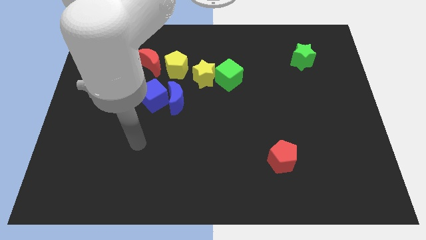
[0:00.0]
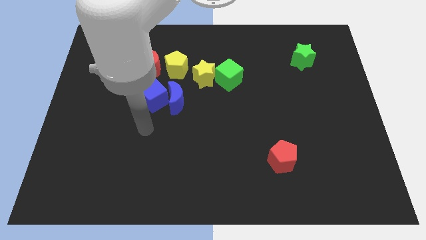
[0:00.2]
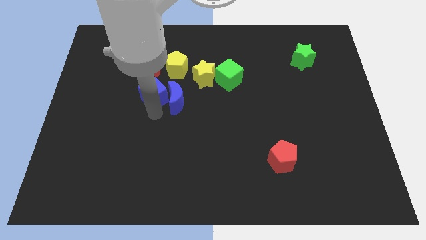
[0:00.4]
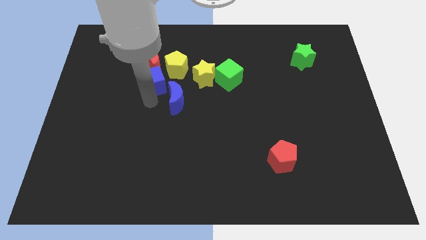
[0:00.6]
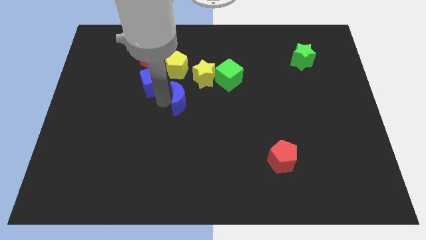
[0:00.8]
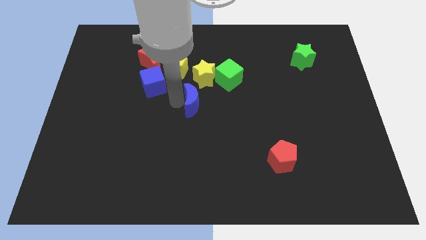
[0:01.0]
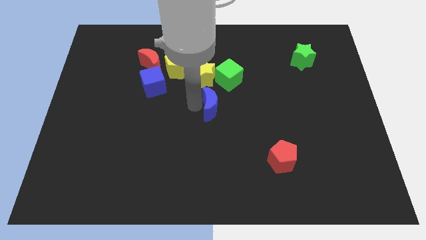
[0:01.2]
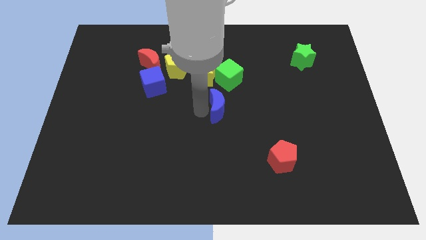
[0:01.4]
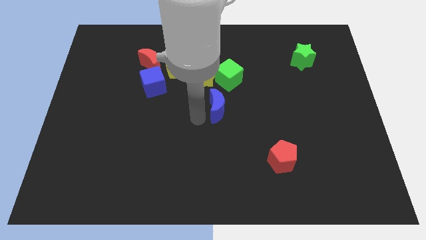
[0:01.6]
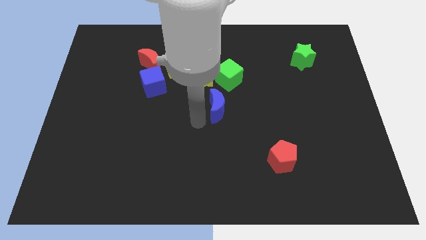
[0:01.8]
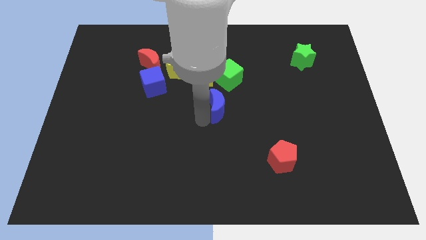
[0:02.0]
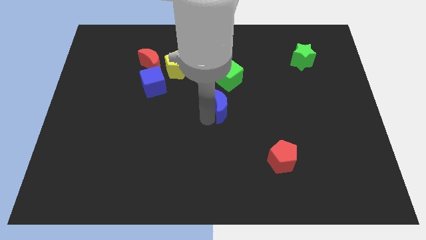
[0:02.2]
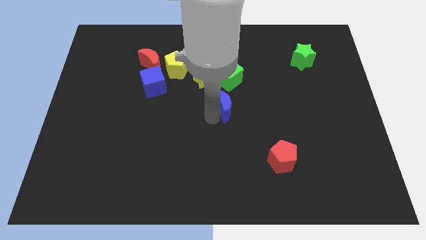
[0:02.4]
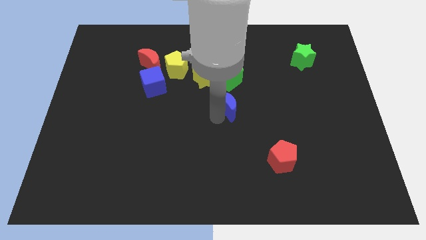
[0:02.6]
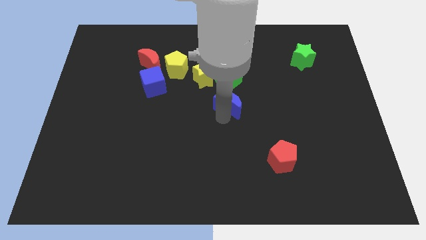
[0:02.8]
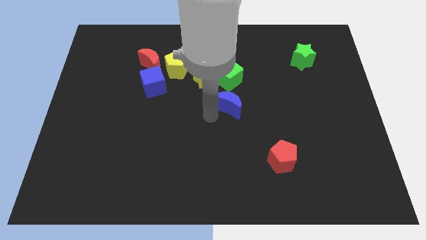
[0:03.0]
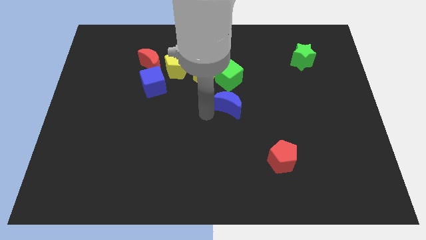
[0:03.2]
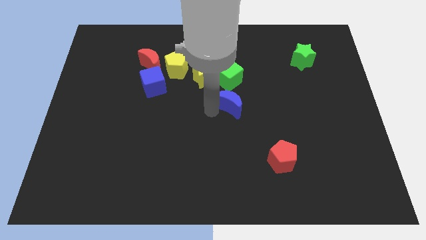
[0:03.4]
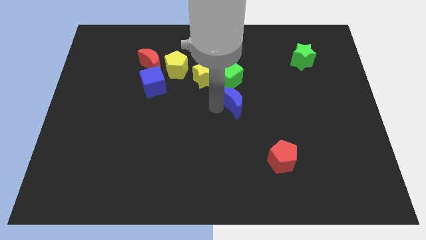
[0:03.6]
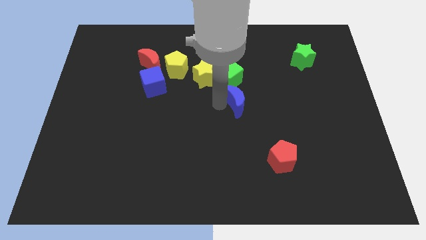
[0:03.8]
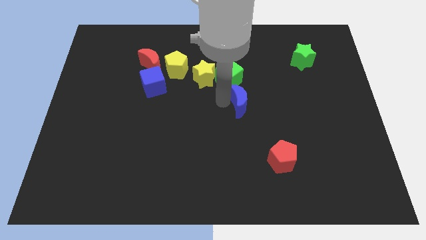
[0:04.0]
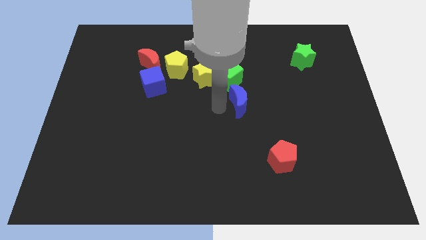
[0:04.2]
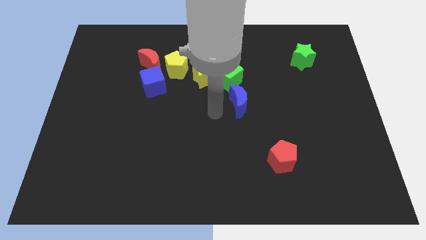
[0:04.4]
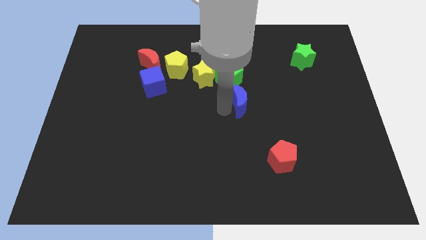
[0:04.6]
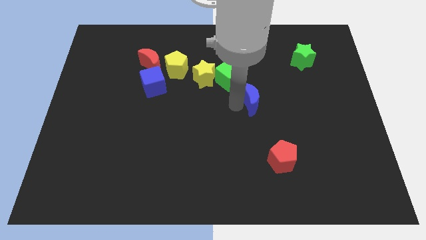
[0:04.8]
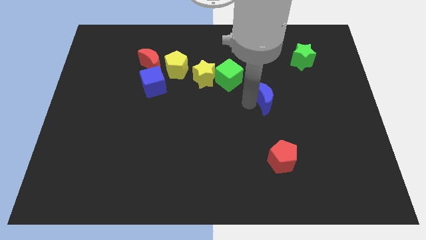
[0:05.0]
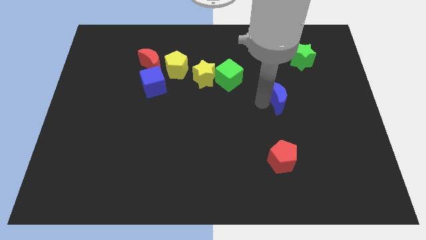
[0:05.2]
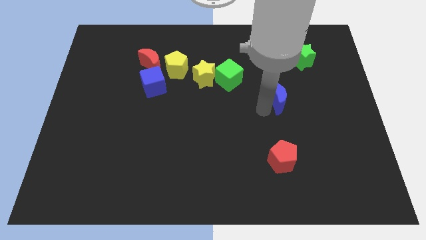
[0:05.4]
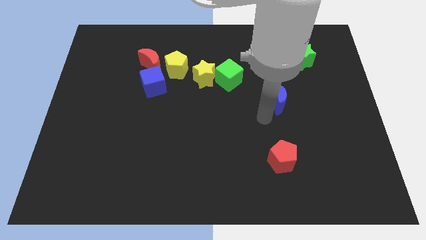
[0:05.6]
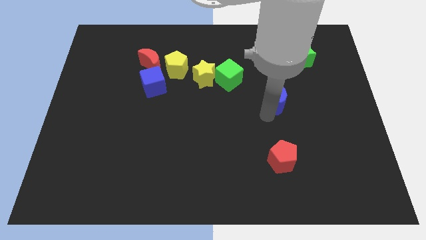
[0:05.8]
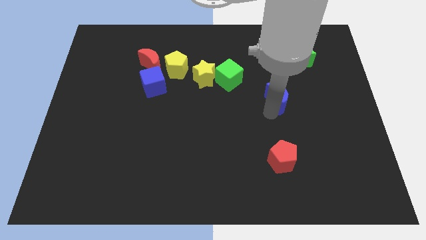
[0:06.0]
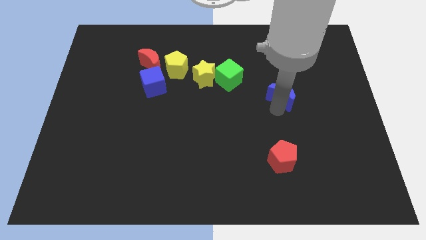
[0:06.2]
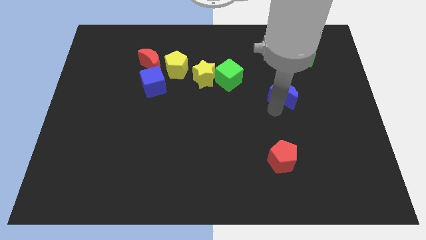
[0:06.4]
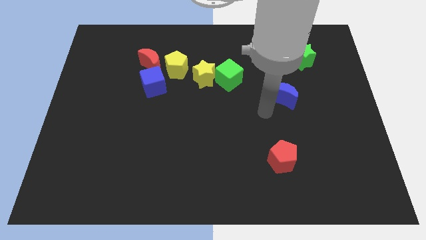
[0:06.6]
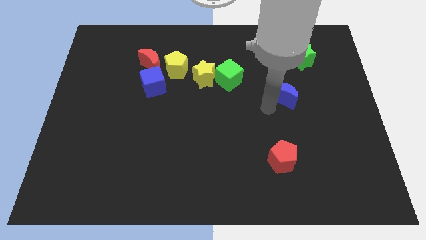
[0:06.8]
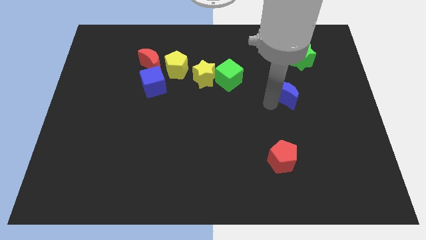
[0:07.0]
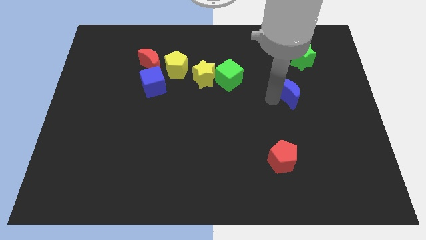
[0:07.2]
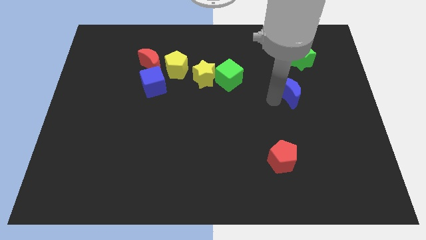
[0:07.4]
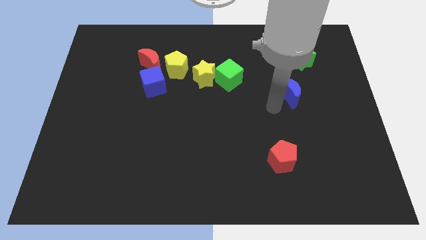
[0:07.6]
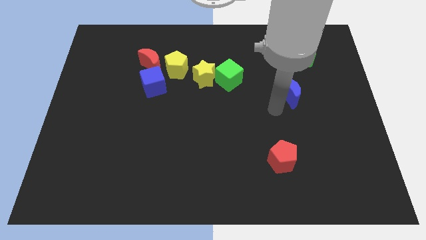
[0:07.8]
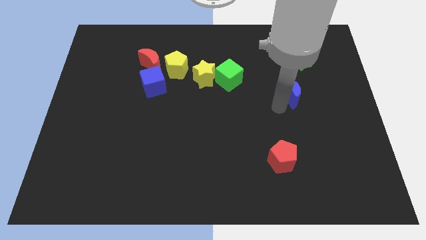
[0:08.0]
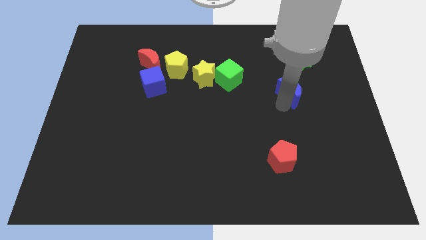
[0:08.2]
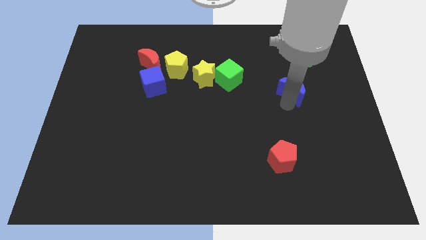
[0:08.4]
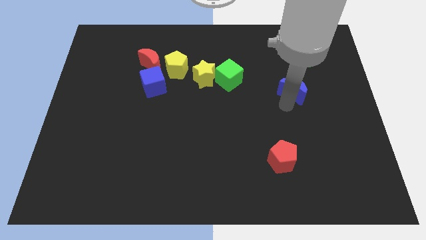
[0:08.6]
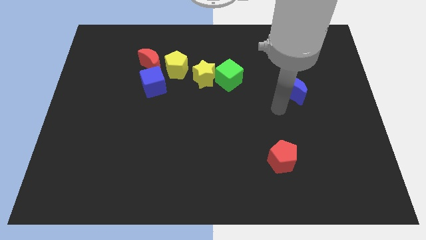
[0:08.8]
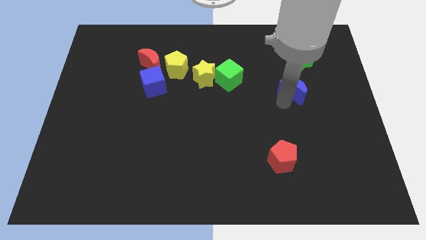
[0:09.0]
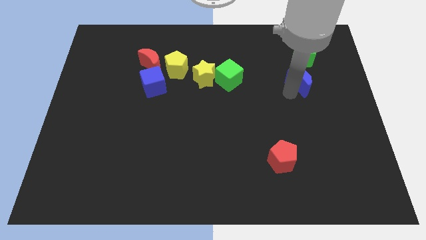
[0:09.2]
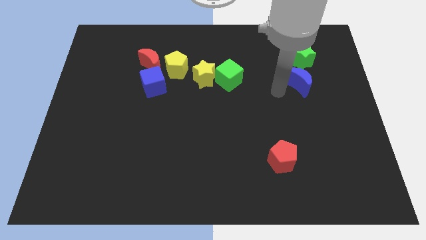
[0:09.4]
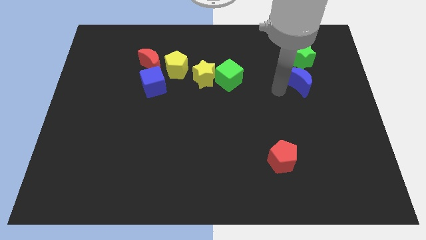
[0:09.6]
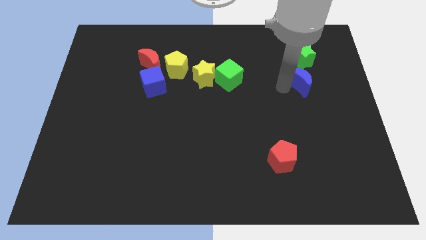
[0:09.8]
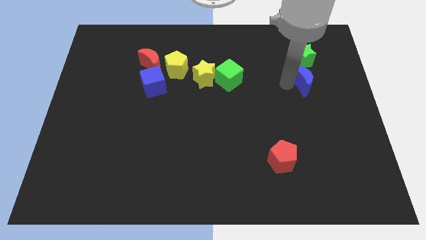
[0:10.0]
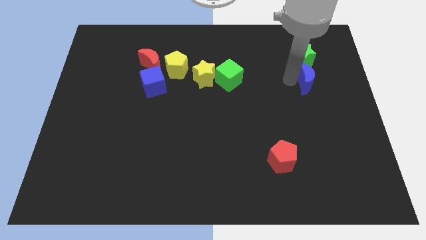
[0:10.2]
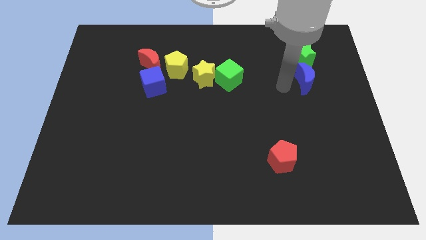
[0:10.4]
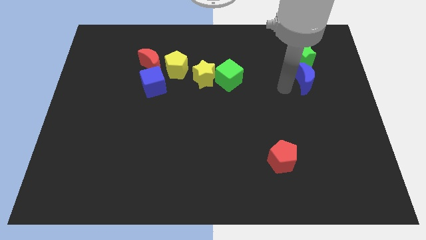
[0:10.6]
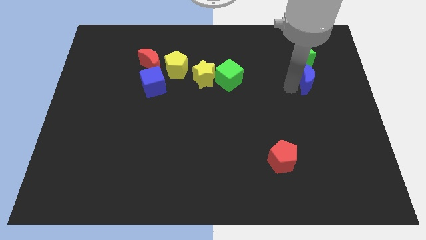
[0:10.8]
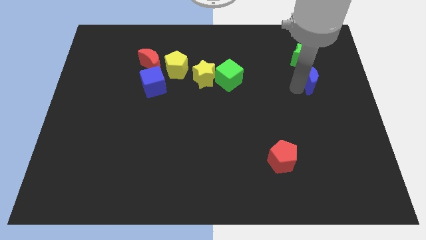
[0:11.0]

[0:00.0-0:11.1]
push the blue moon to the bottom right of the green star

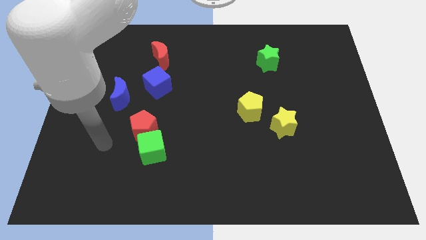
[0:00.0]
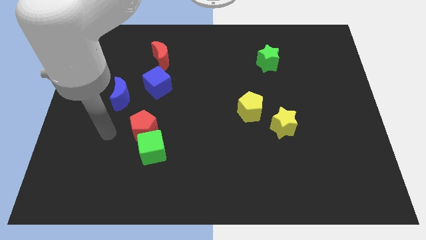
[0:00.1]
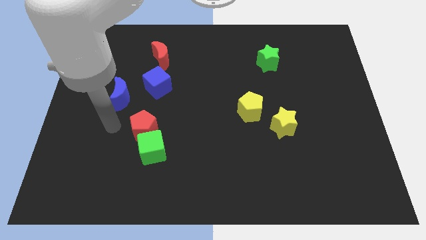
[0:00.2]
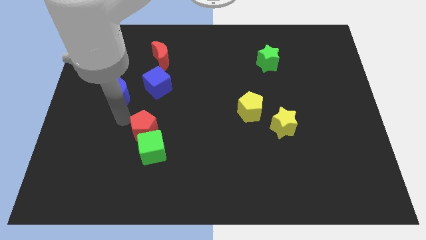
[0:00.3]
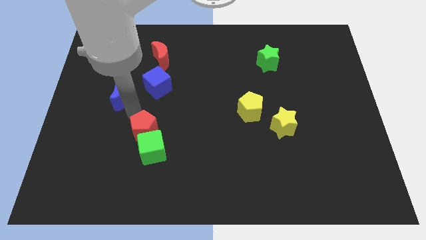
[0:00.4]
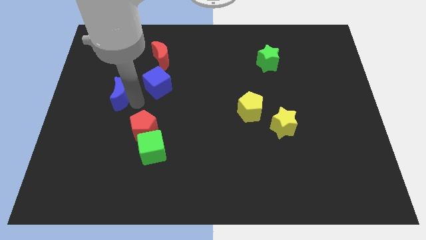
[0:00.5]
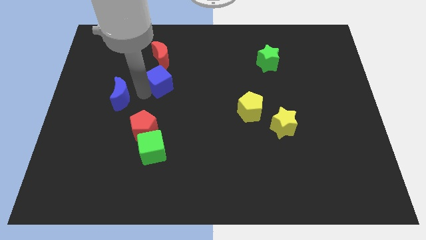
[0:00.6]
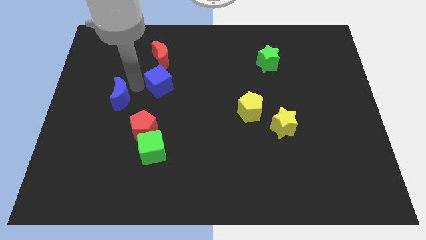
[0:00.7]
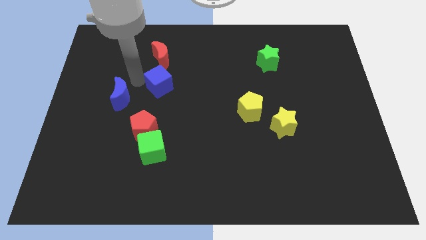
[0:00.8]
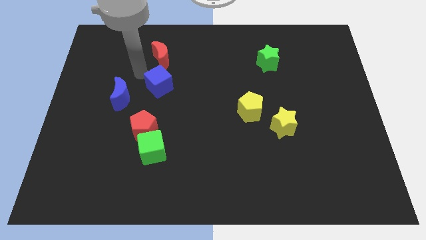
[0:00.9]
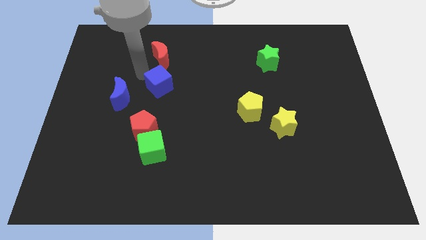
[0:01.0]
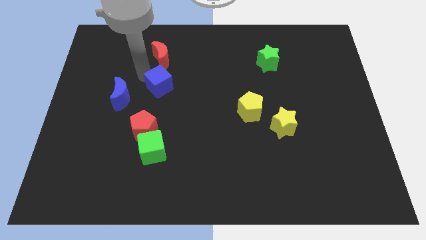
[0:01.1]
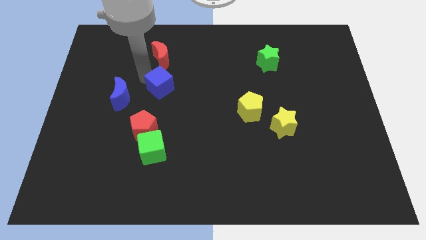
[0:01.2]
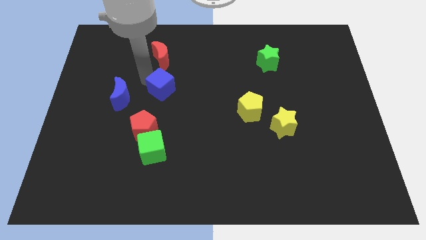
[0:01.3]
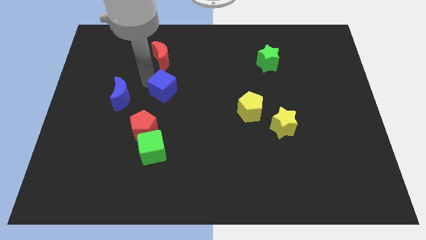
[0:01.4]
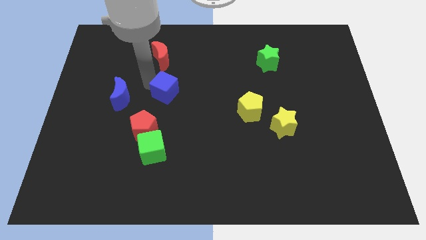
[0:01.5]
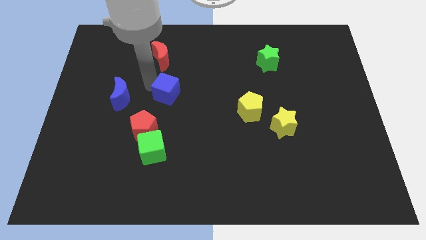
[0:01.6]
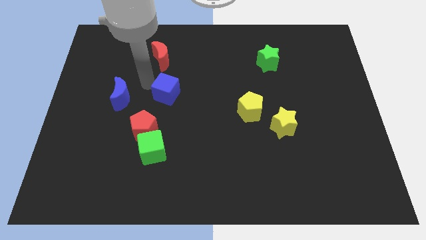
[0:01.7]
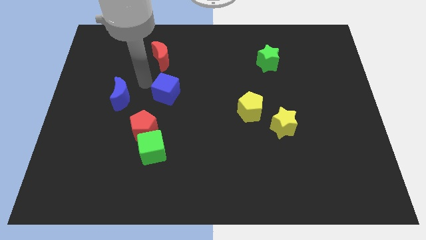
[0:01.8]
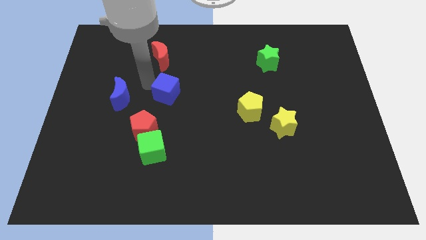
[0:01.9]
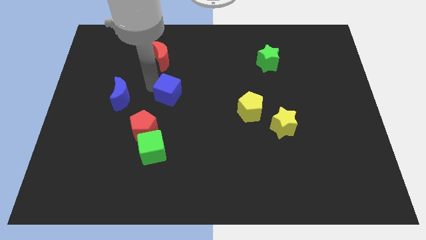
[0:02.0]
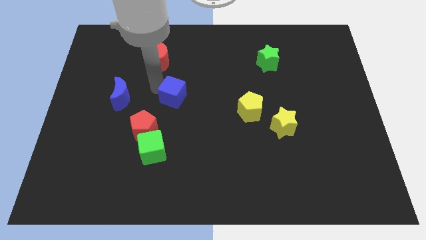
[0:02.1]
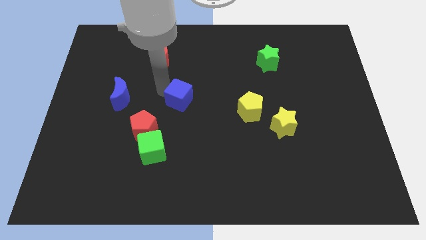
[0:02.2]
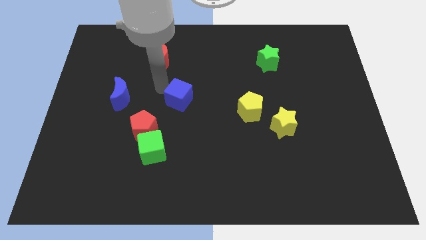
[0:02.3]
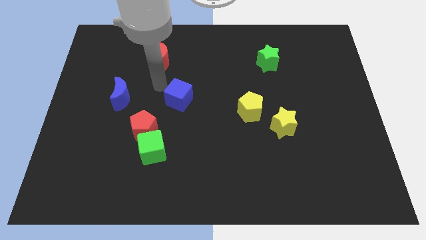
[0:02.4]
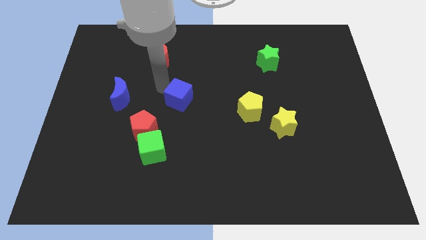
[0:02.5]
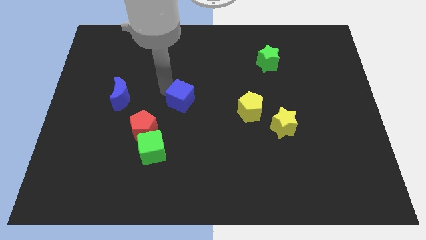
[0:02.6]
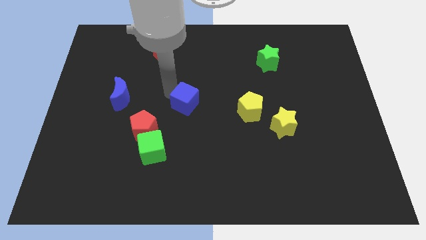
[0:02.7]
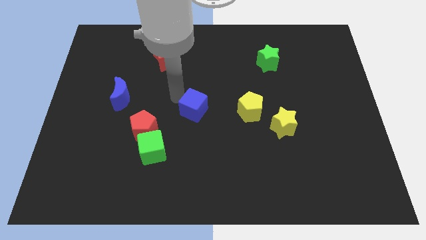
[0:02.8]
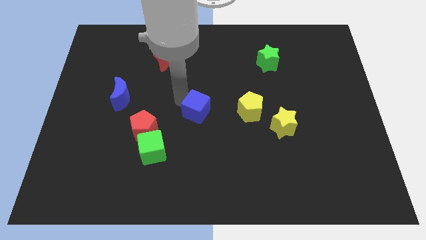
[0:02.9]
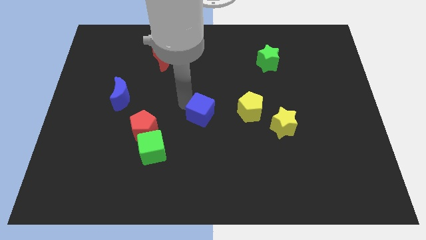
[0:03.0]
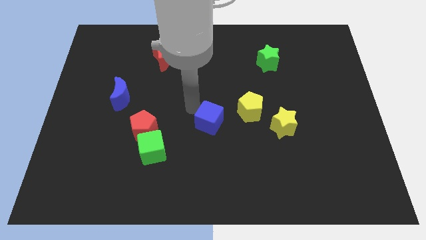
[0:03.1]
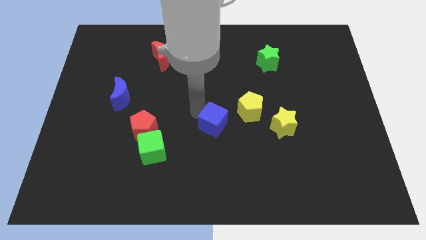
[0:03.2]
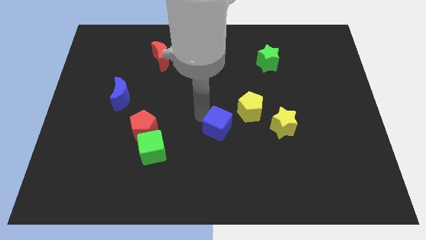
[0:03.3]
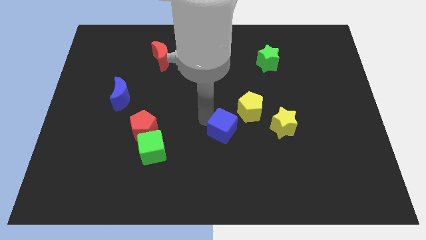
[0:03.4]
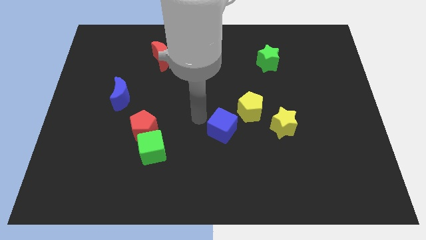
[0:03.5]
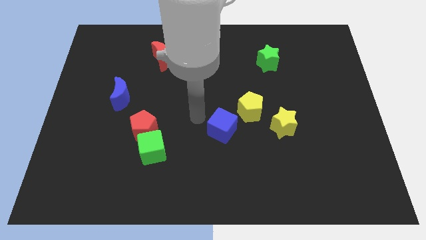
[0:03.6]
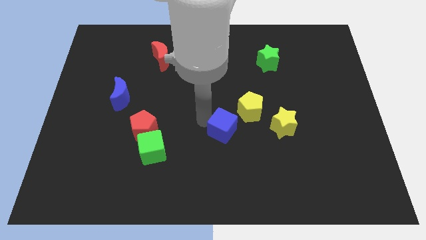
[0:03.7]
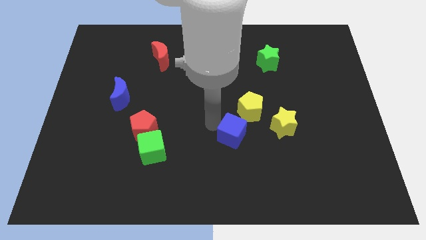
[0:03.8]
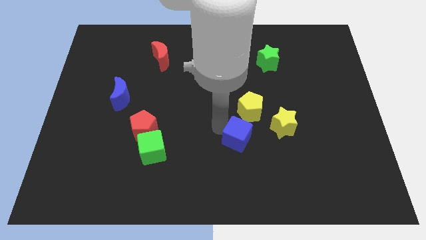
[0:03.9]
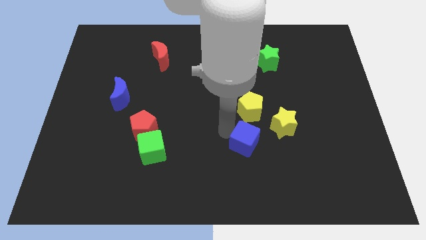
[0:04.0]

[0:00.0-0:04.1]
slide the blue cube diagonally down and to the left of the yellow star
